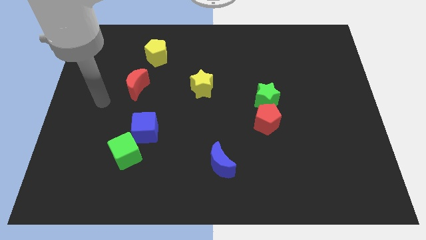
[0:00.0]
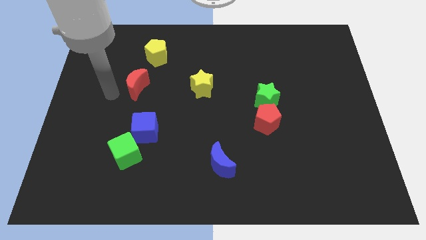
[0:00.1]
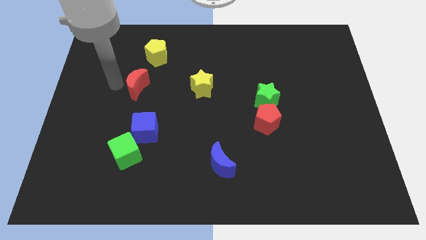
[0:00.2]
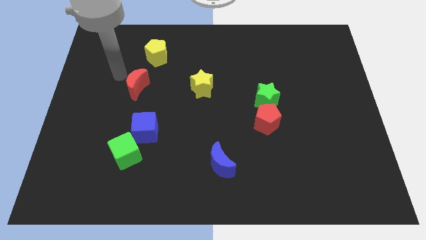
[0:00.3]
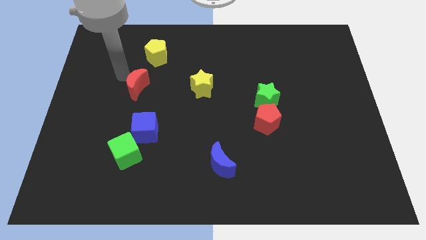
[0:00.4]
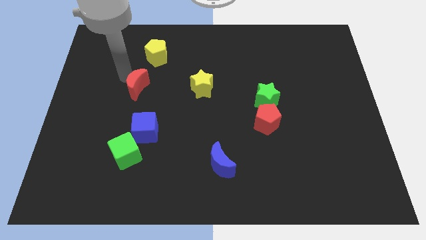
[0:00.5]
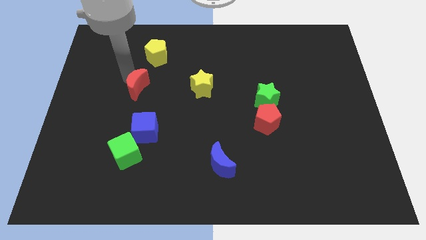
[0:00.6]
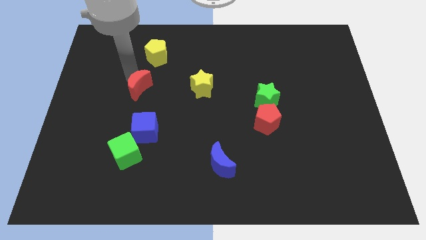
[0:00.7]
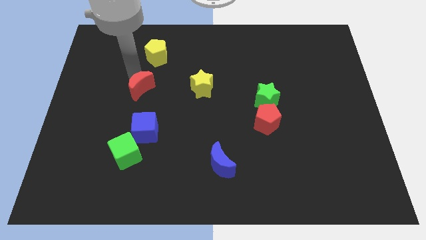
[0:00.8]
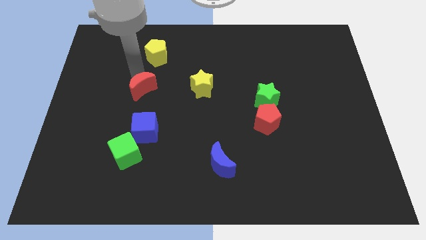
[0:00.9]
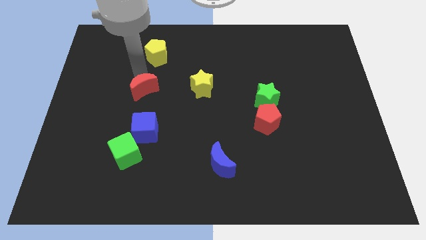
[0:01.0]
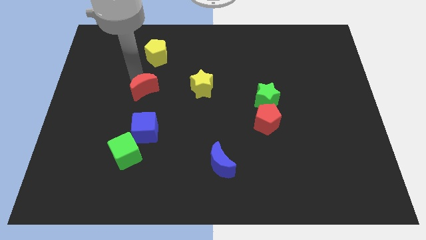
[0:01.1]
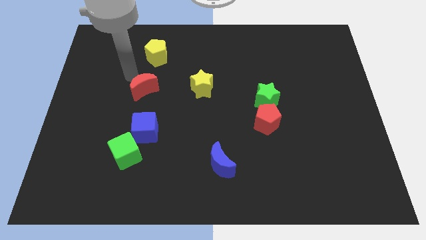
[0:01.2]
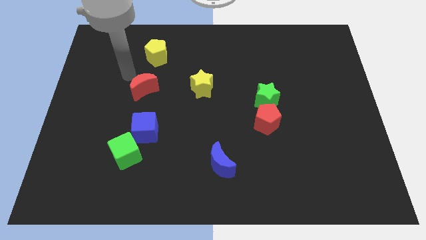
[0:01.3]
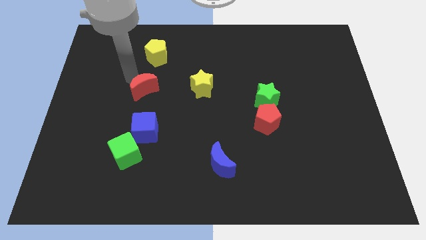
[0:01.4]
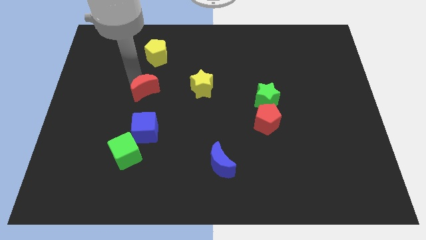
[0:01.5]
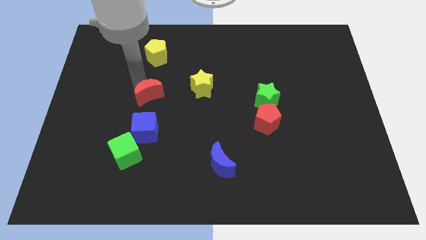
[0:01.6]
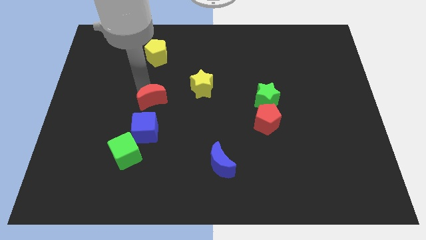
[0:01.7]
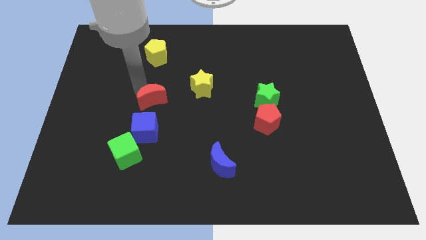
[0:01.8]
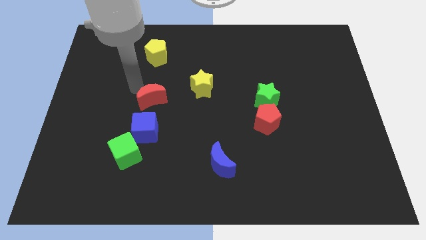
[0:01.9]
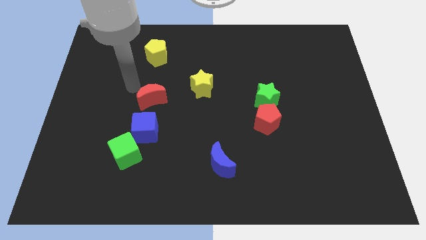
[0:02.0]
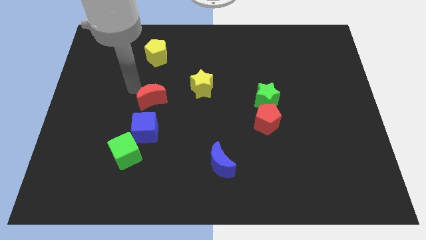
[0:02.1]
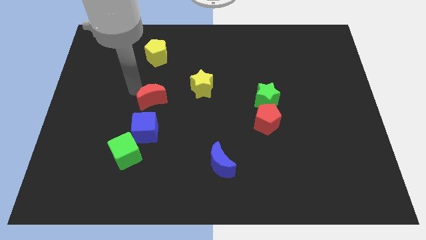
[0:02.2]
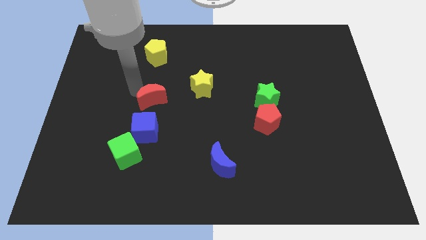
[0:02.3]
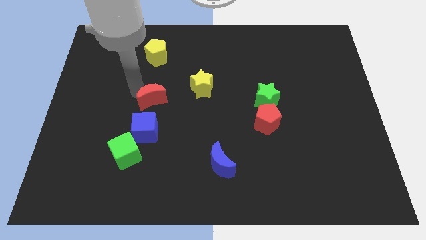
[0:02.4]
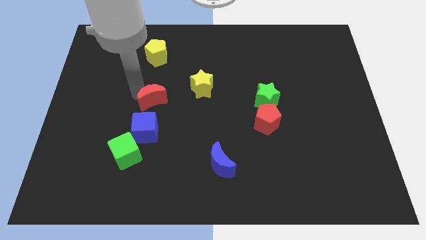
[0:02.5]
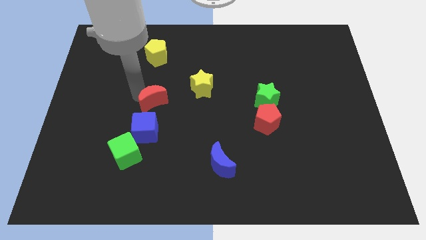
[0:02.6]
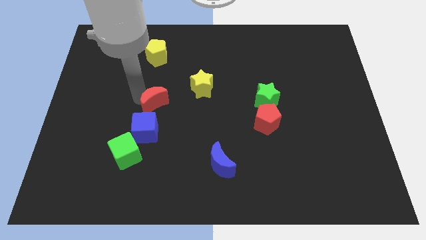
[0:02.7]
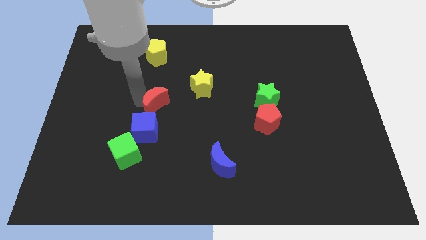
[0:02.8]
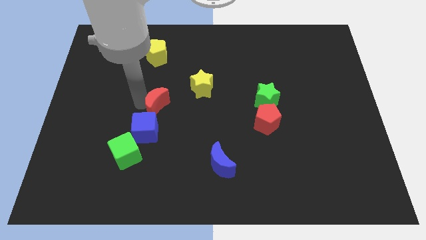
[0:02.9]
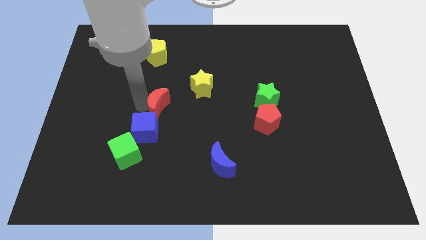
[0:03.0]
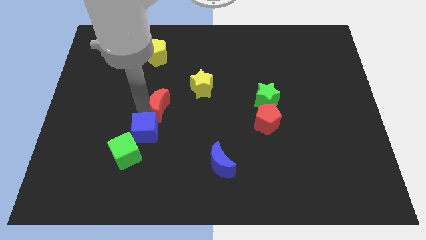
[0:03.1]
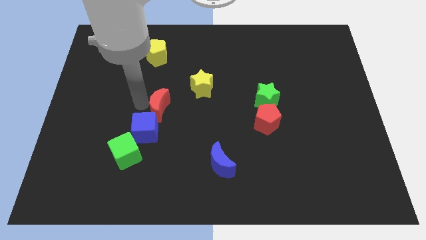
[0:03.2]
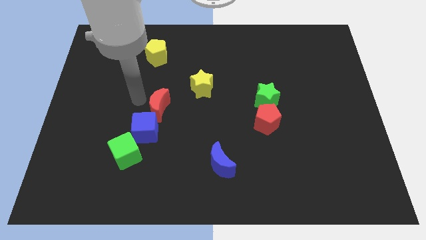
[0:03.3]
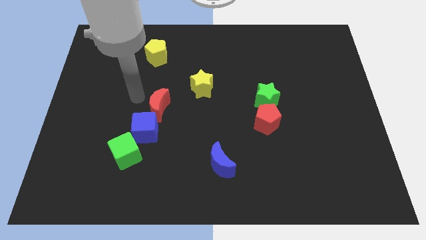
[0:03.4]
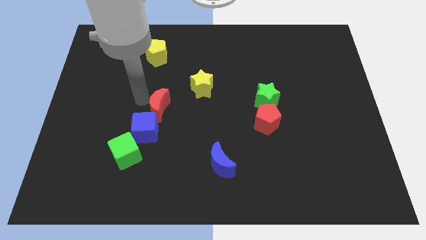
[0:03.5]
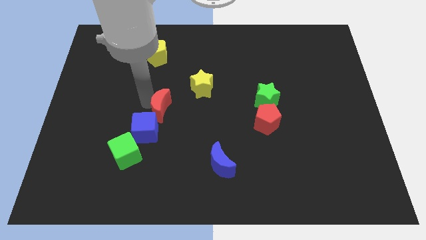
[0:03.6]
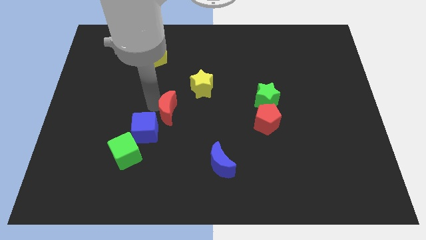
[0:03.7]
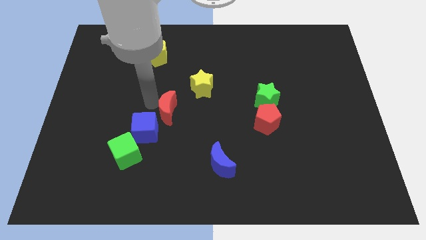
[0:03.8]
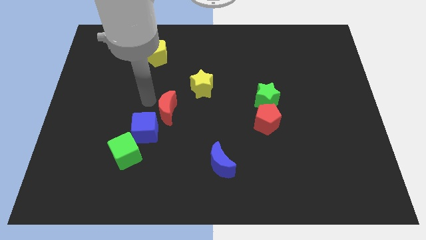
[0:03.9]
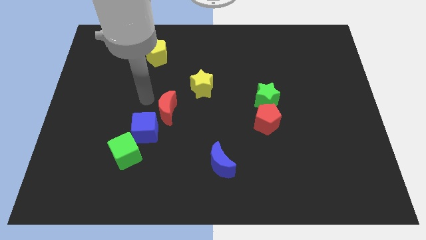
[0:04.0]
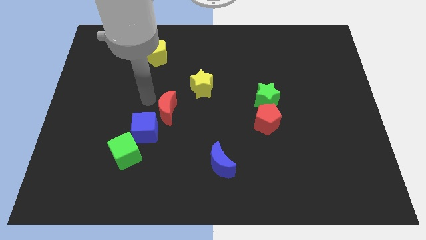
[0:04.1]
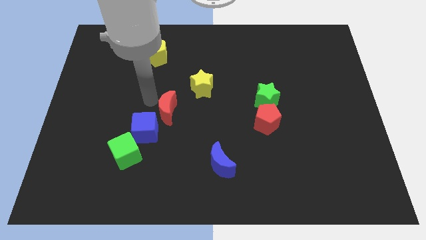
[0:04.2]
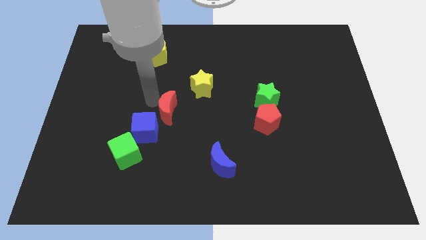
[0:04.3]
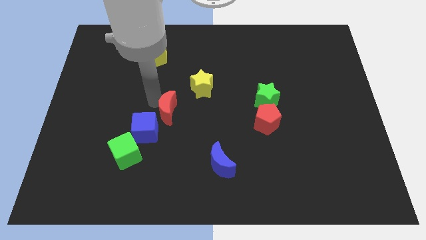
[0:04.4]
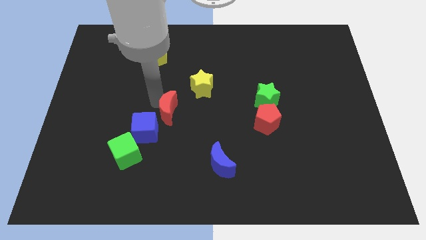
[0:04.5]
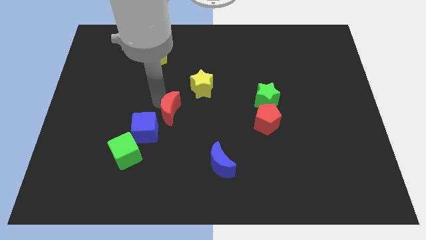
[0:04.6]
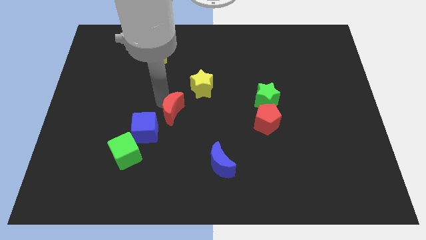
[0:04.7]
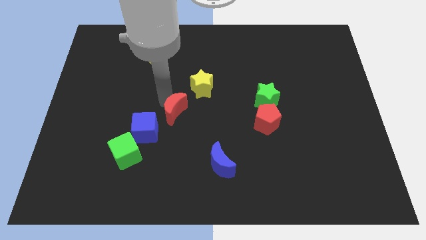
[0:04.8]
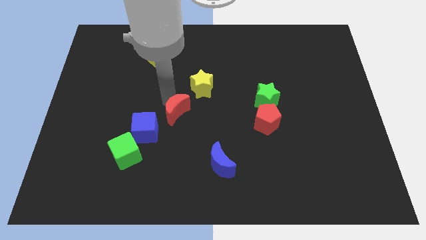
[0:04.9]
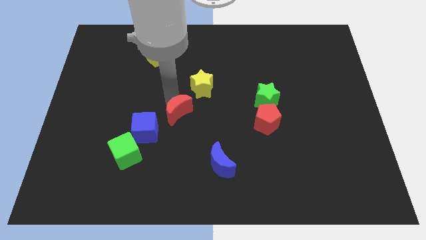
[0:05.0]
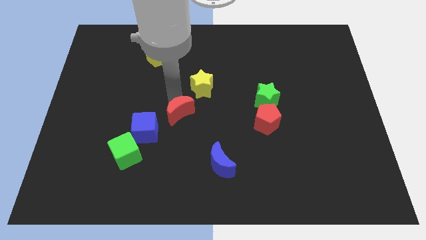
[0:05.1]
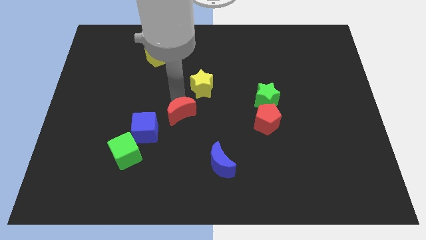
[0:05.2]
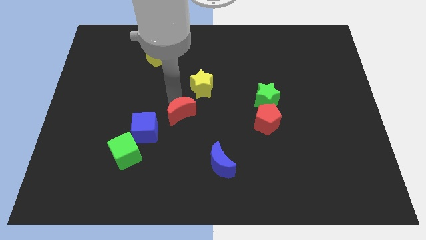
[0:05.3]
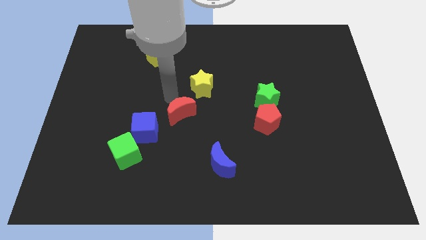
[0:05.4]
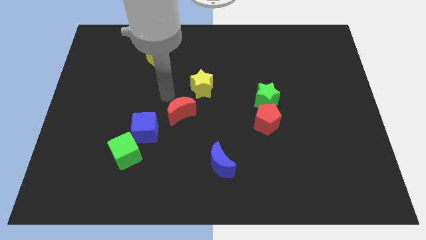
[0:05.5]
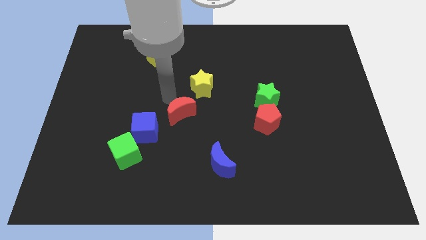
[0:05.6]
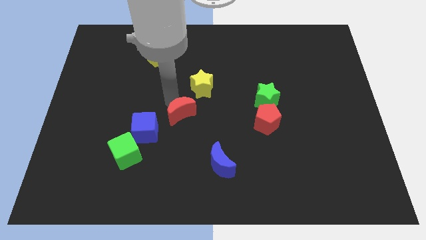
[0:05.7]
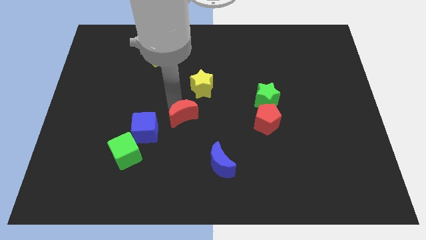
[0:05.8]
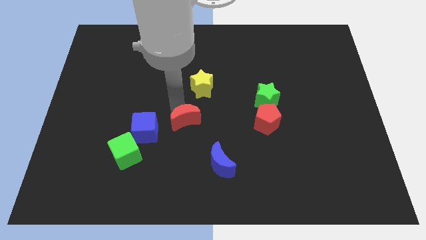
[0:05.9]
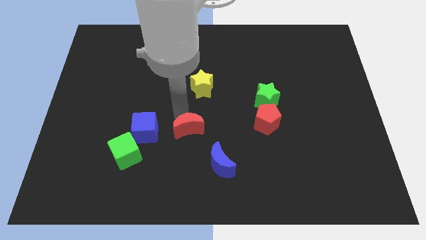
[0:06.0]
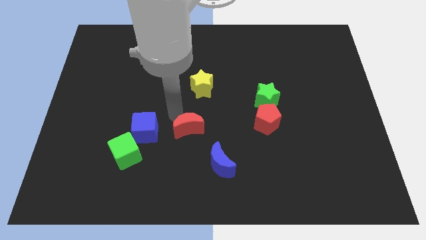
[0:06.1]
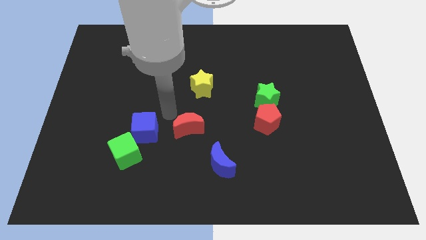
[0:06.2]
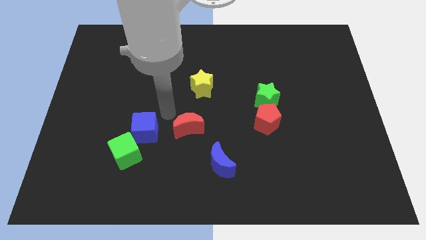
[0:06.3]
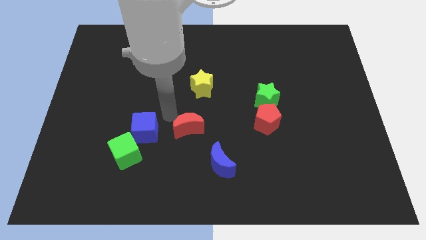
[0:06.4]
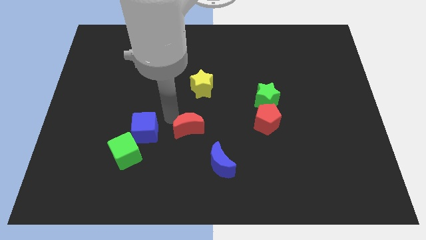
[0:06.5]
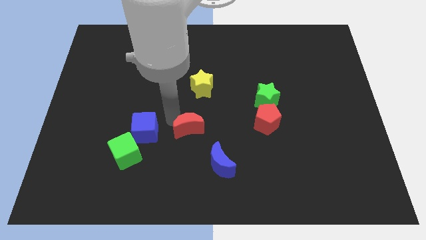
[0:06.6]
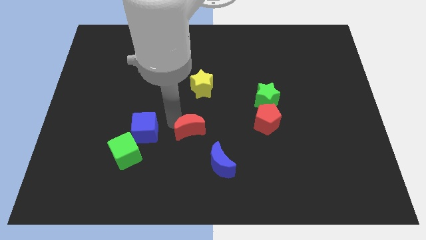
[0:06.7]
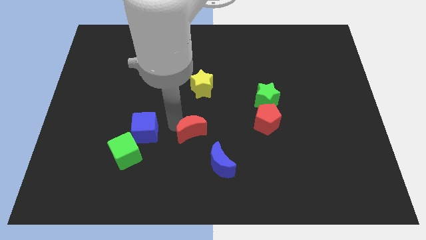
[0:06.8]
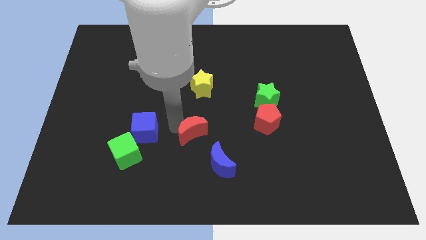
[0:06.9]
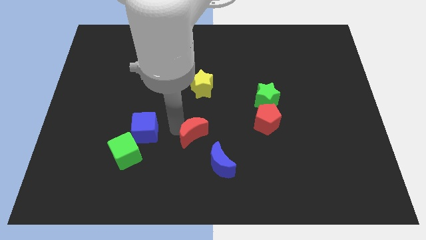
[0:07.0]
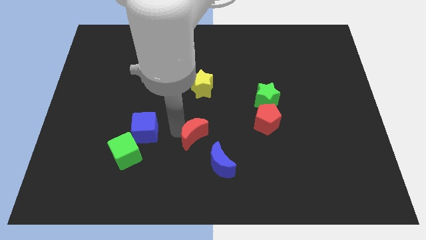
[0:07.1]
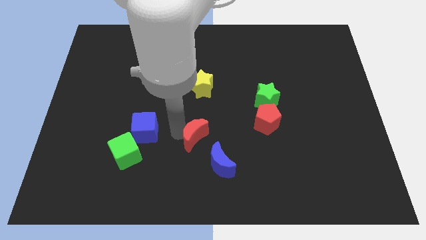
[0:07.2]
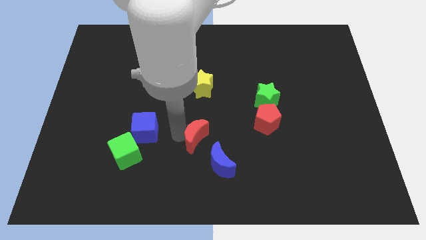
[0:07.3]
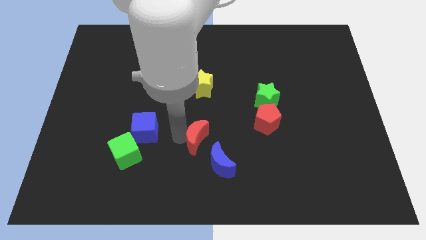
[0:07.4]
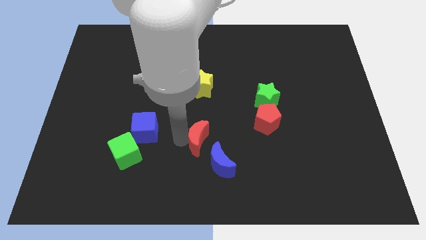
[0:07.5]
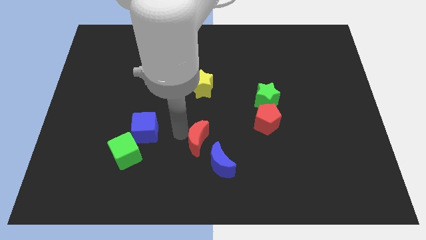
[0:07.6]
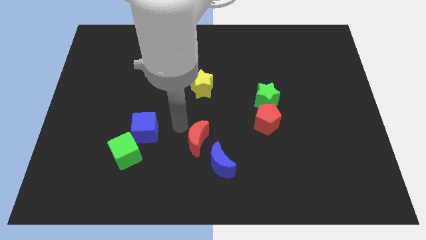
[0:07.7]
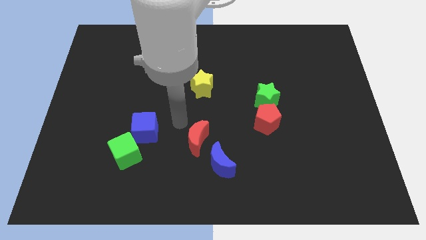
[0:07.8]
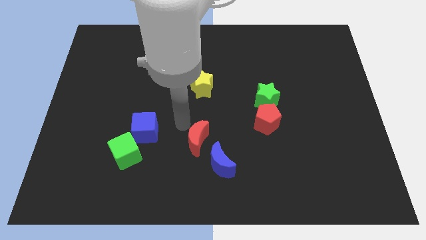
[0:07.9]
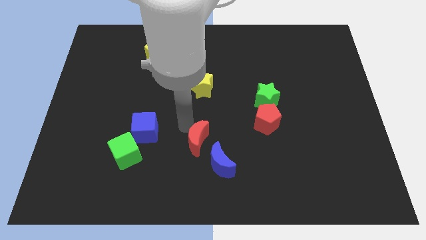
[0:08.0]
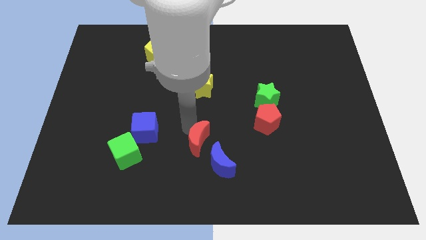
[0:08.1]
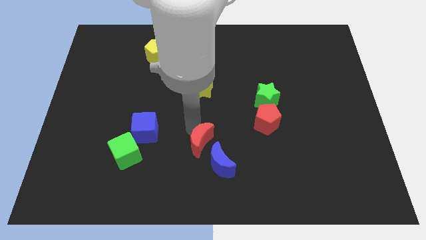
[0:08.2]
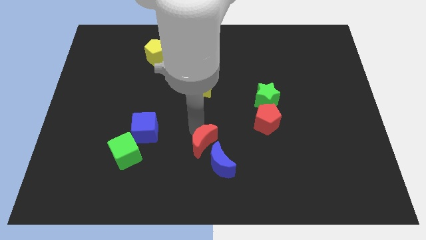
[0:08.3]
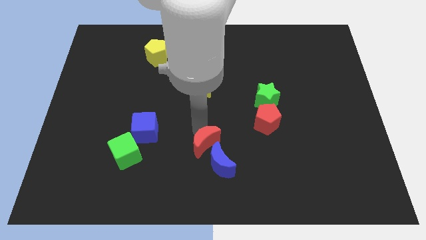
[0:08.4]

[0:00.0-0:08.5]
push the red moon close to the blue moon
